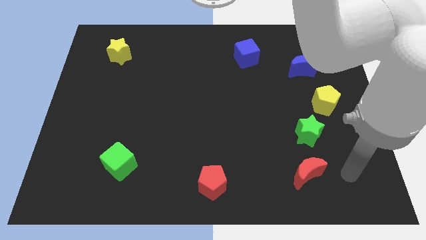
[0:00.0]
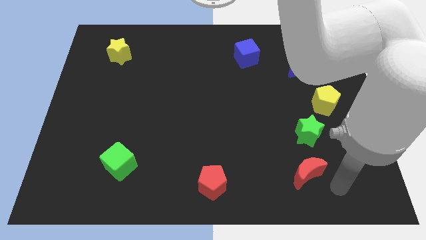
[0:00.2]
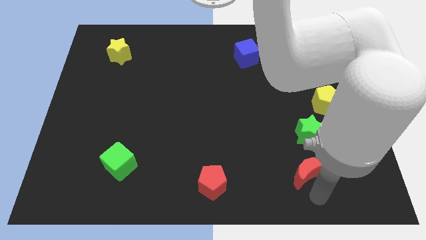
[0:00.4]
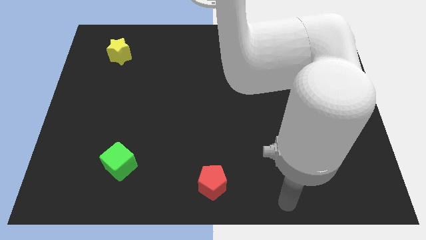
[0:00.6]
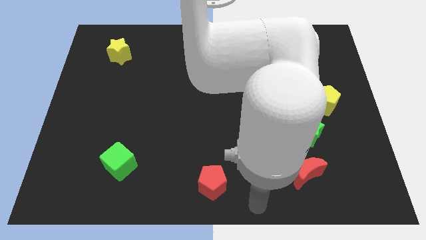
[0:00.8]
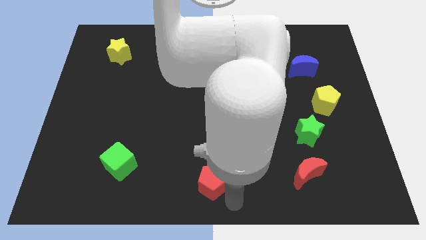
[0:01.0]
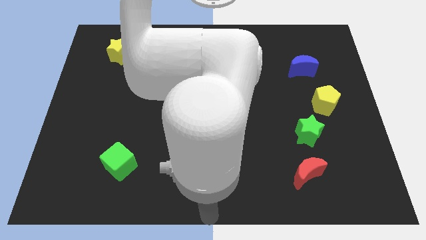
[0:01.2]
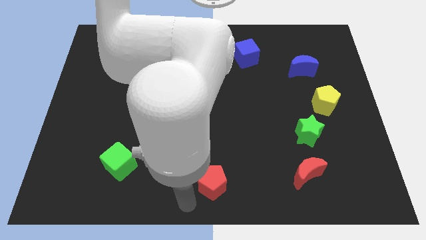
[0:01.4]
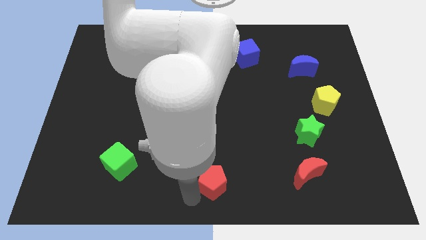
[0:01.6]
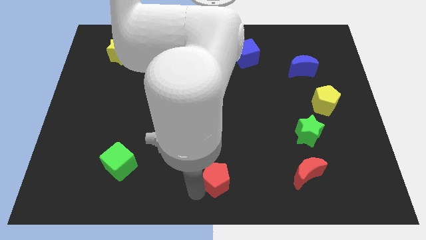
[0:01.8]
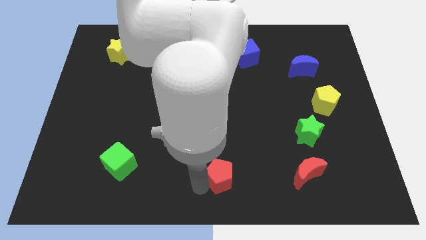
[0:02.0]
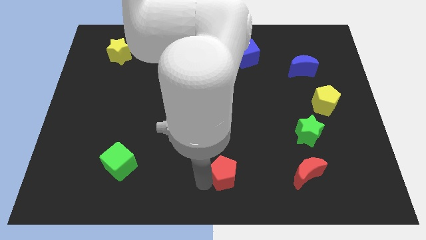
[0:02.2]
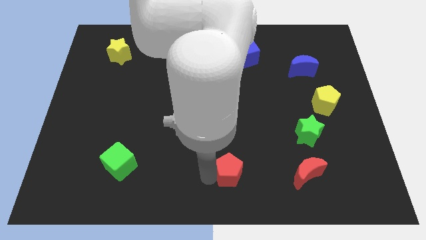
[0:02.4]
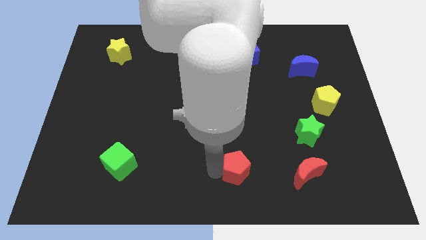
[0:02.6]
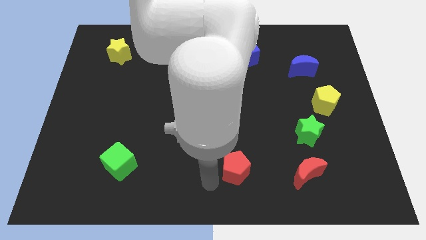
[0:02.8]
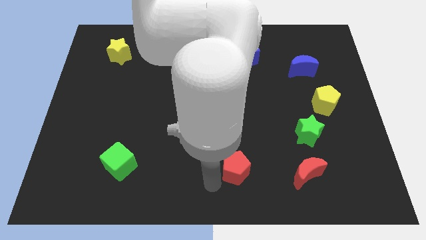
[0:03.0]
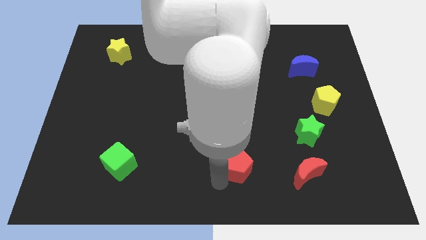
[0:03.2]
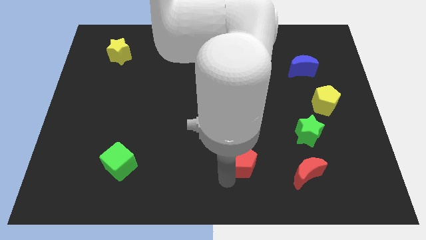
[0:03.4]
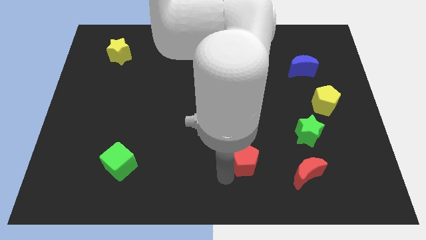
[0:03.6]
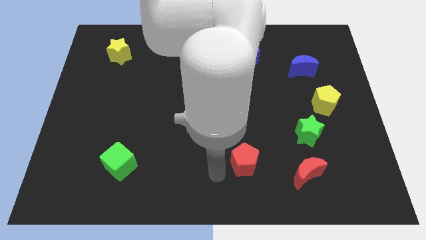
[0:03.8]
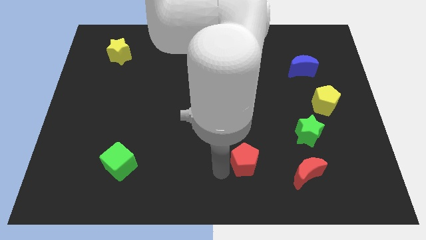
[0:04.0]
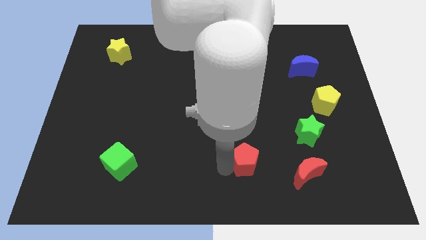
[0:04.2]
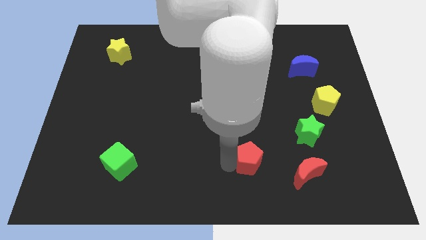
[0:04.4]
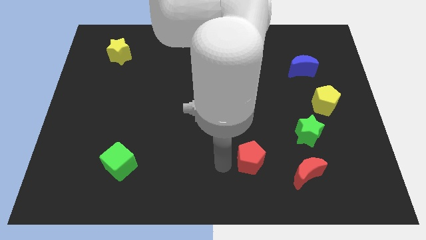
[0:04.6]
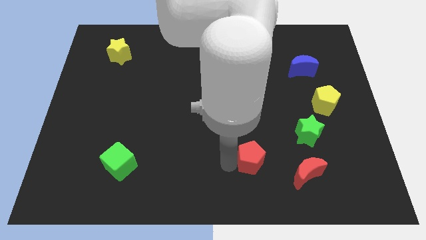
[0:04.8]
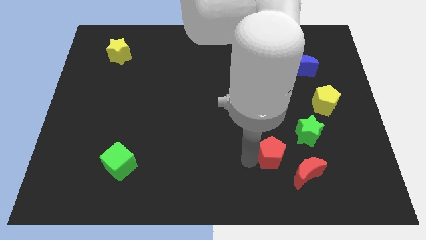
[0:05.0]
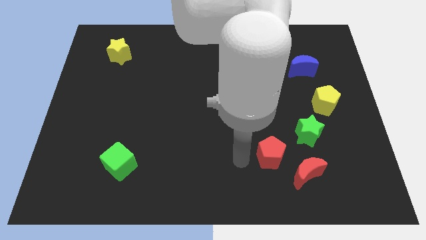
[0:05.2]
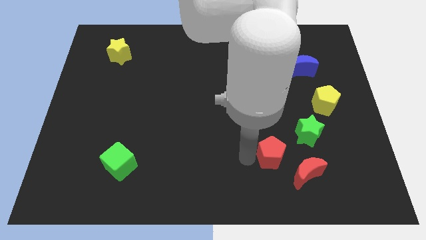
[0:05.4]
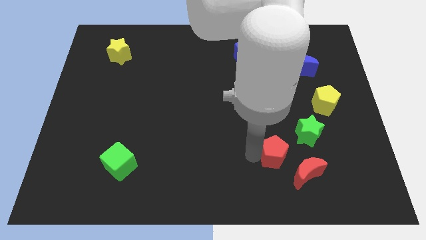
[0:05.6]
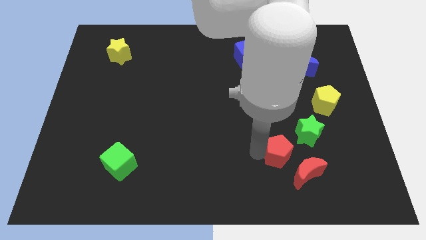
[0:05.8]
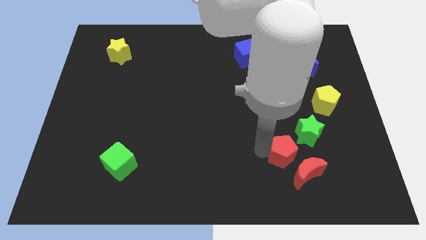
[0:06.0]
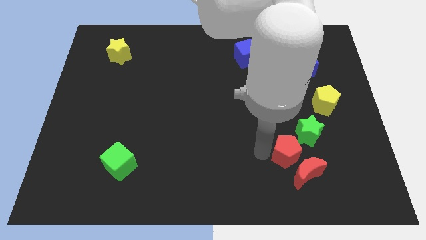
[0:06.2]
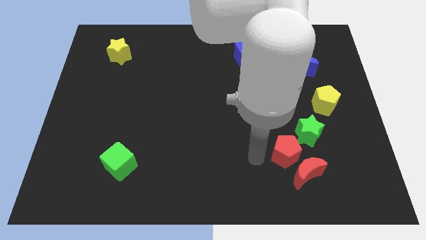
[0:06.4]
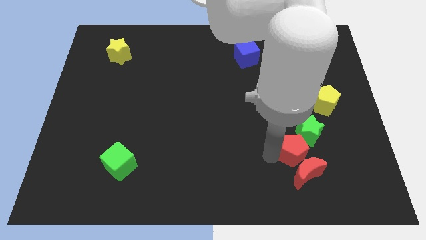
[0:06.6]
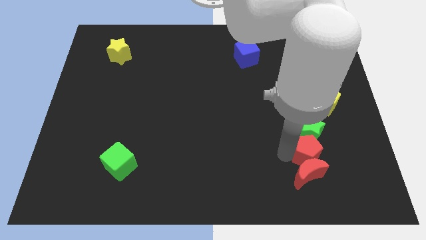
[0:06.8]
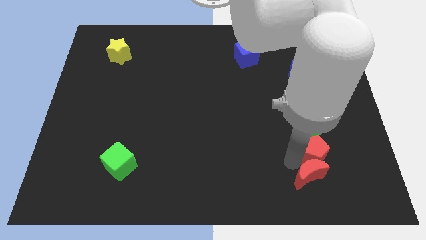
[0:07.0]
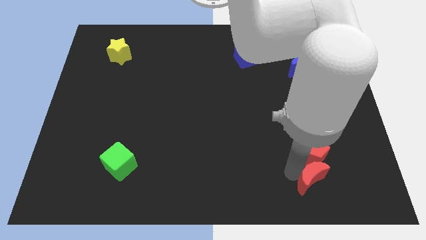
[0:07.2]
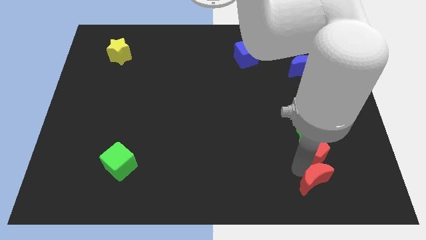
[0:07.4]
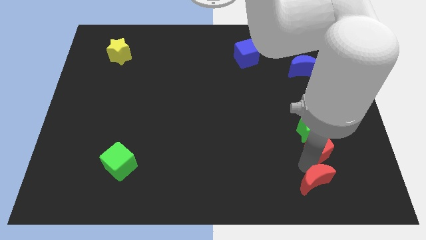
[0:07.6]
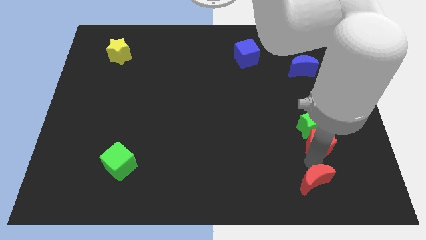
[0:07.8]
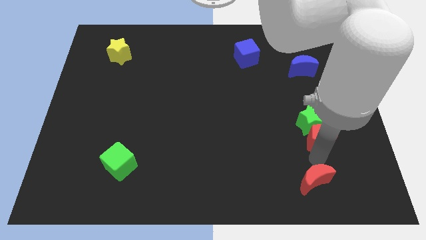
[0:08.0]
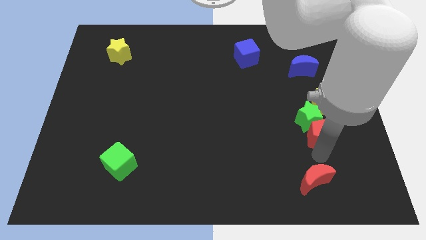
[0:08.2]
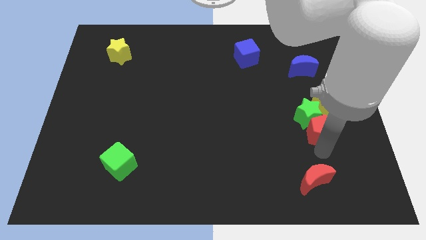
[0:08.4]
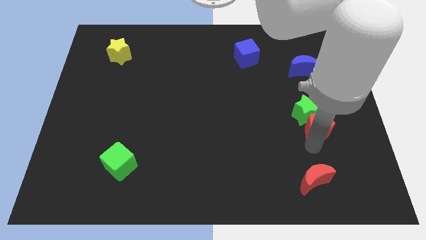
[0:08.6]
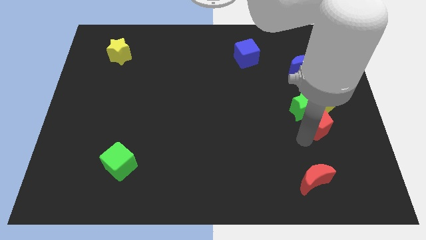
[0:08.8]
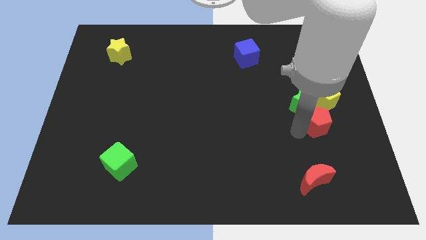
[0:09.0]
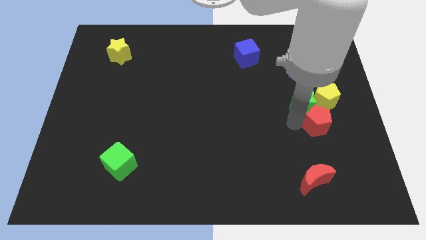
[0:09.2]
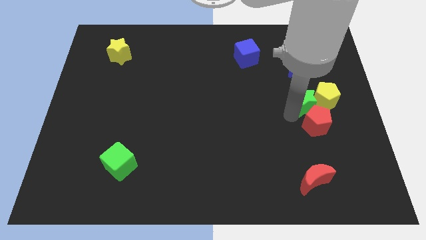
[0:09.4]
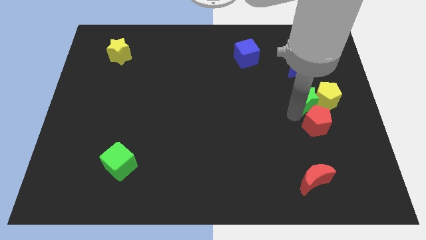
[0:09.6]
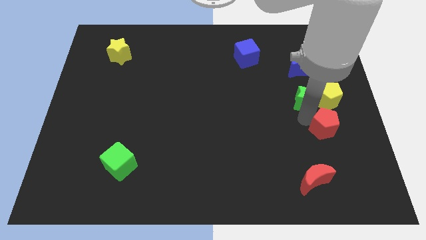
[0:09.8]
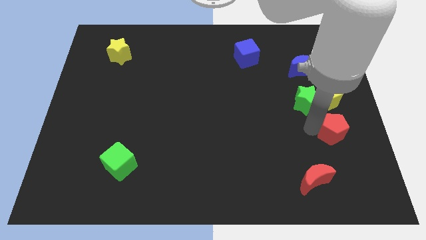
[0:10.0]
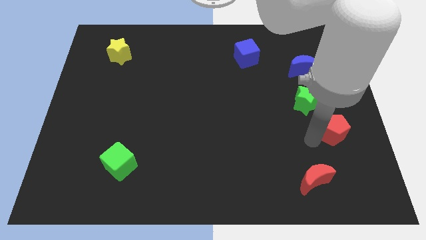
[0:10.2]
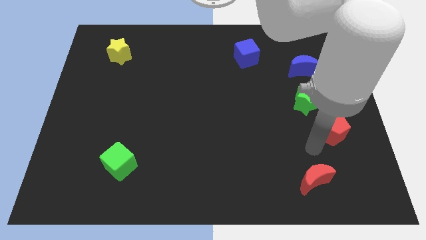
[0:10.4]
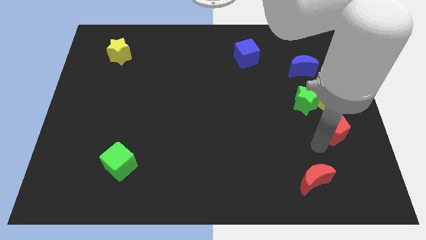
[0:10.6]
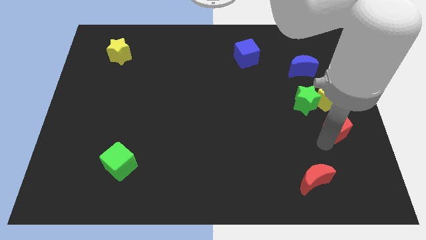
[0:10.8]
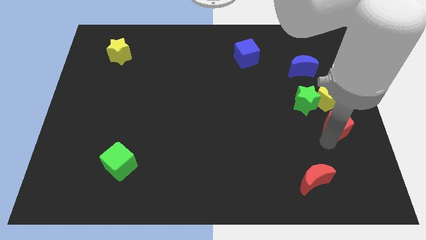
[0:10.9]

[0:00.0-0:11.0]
move the red pentagon to the right side of the board

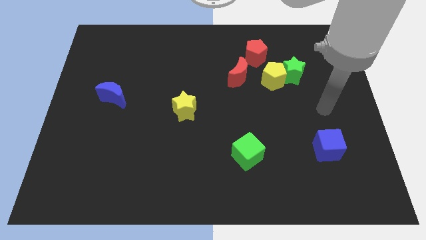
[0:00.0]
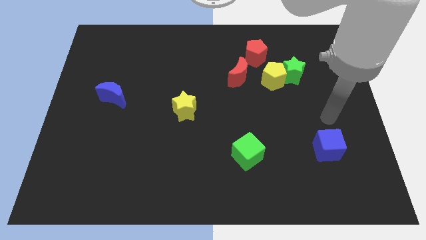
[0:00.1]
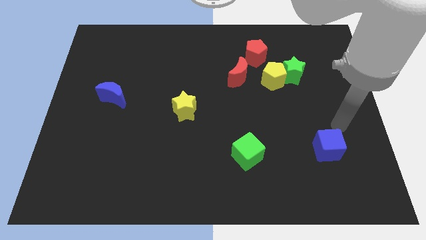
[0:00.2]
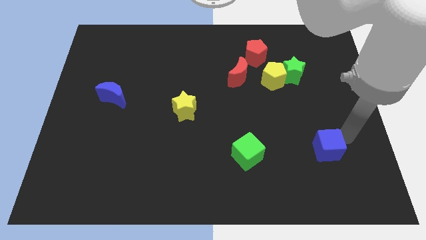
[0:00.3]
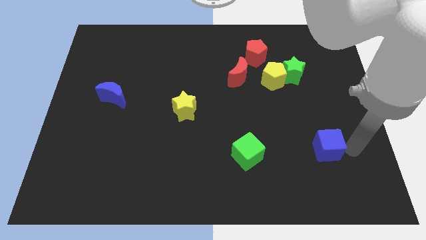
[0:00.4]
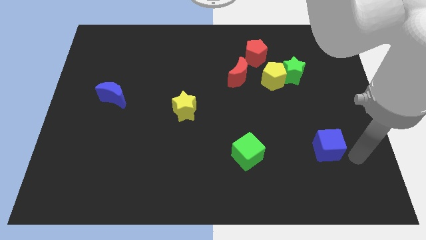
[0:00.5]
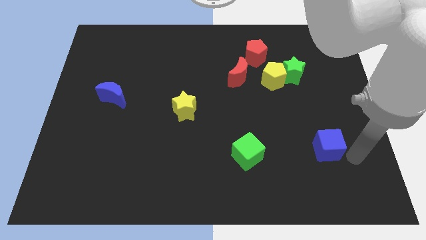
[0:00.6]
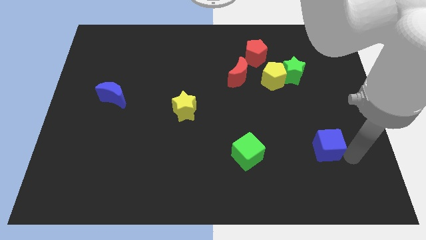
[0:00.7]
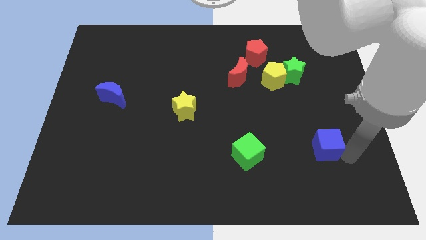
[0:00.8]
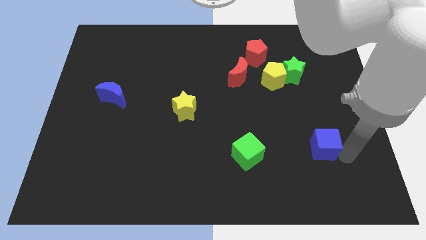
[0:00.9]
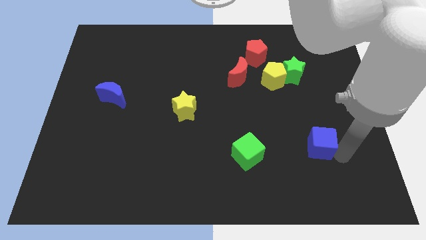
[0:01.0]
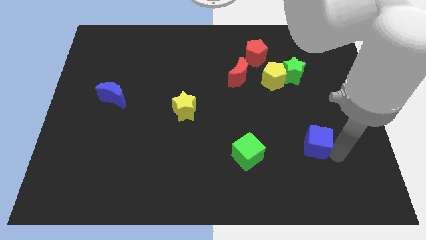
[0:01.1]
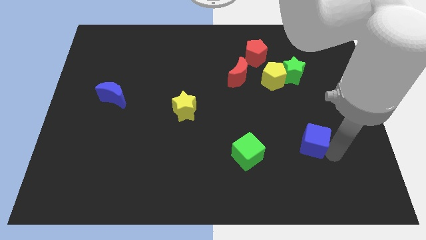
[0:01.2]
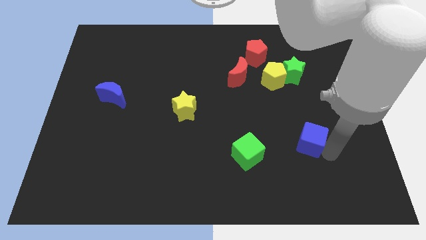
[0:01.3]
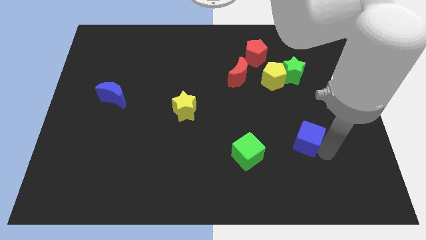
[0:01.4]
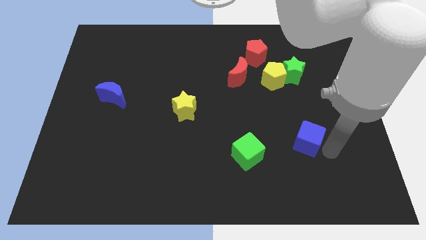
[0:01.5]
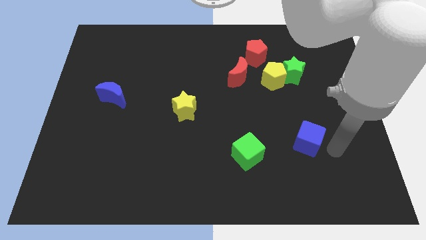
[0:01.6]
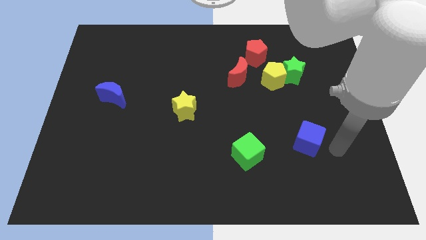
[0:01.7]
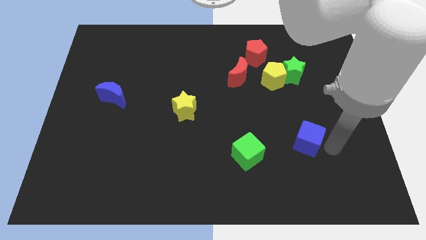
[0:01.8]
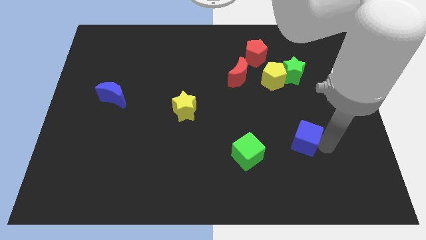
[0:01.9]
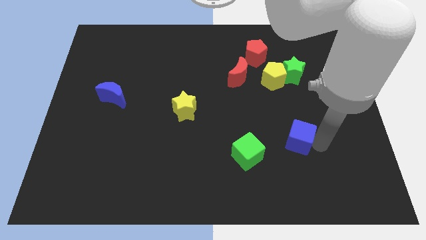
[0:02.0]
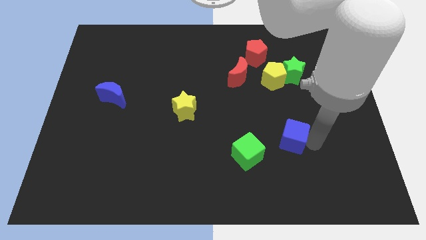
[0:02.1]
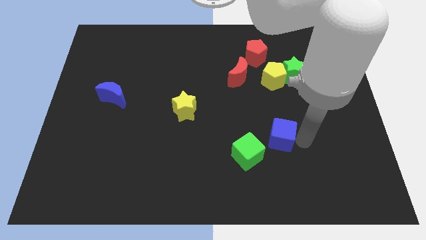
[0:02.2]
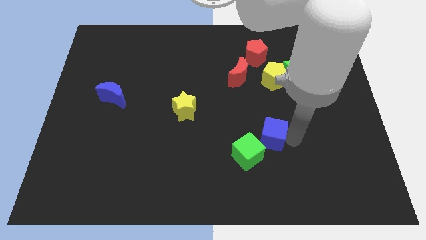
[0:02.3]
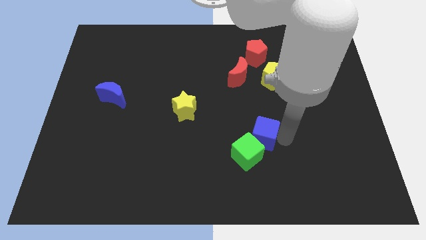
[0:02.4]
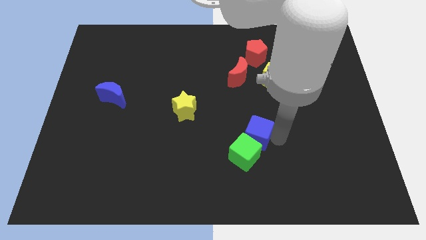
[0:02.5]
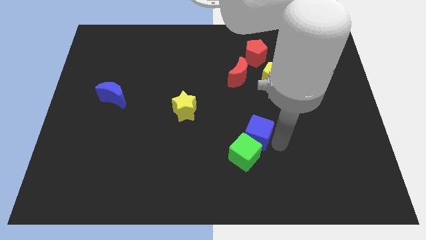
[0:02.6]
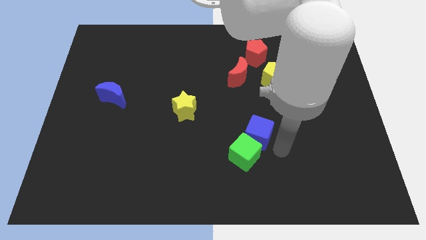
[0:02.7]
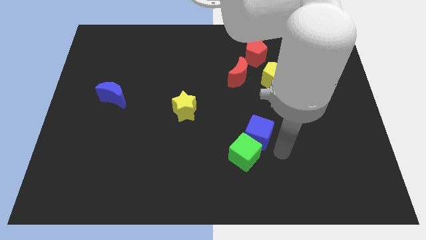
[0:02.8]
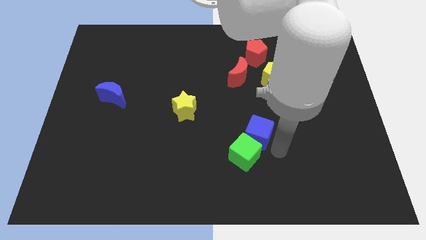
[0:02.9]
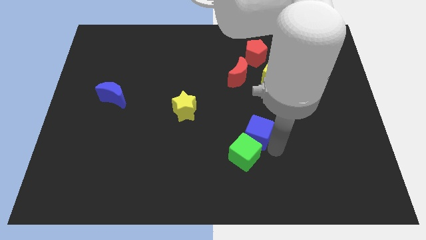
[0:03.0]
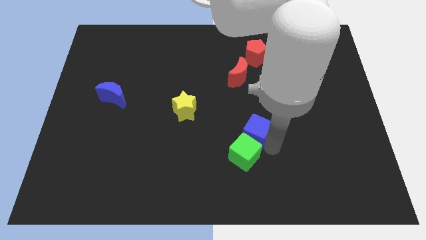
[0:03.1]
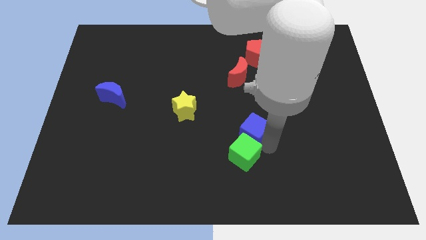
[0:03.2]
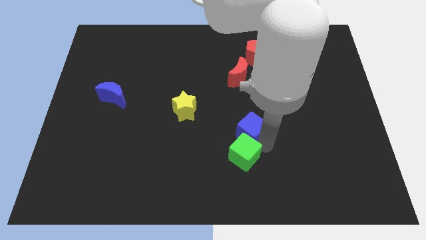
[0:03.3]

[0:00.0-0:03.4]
put the blue cube to the center of the board
